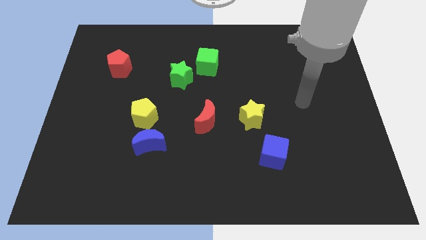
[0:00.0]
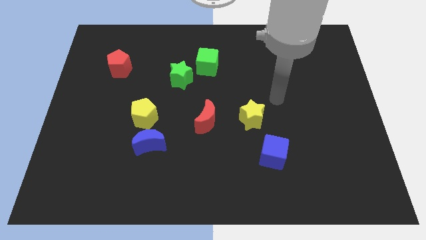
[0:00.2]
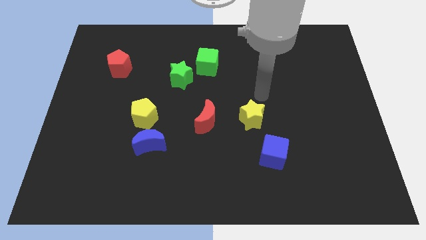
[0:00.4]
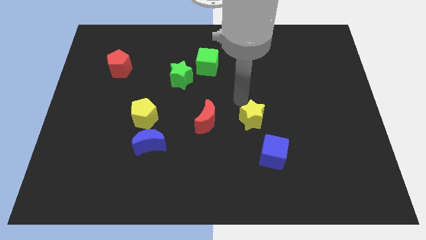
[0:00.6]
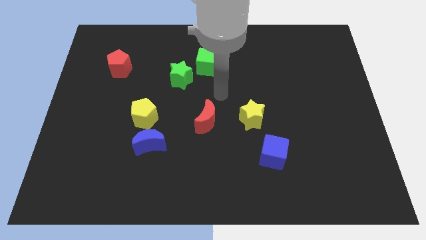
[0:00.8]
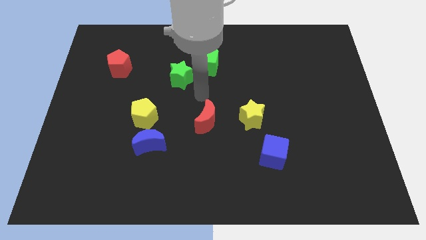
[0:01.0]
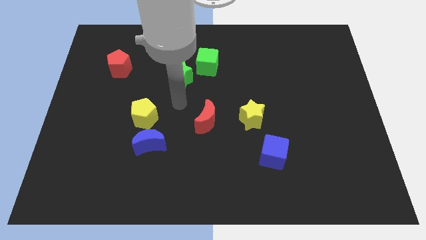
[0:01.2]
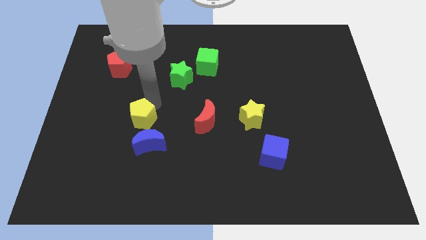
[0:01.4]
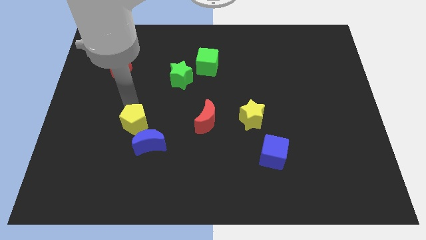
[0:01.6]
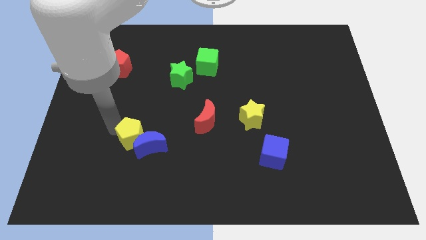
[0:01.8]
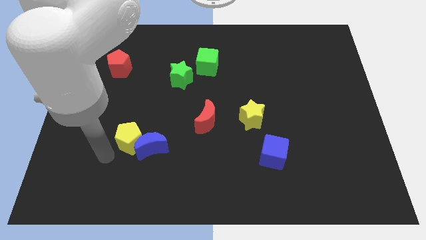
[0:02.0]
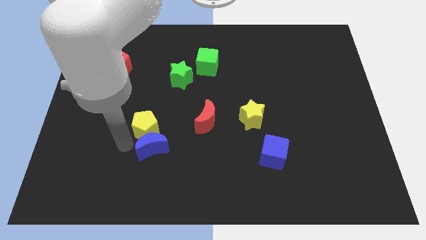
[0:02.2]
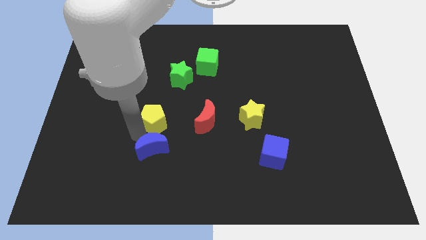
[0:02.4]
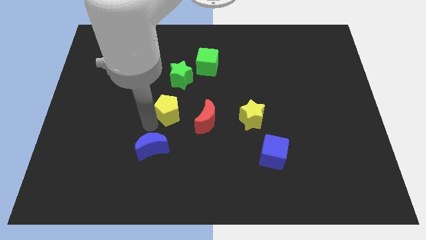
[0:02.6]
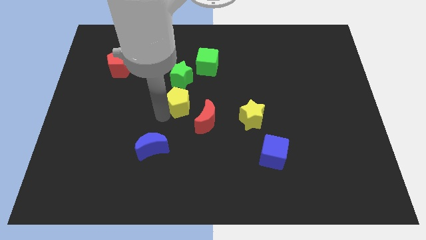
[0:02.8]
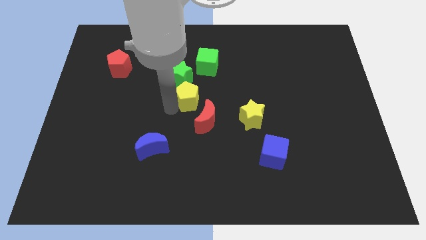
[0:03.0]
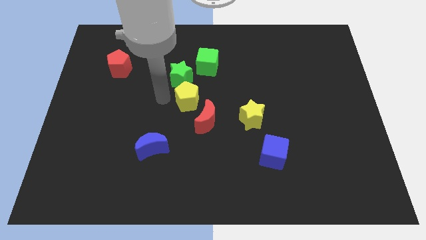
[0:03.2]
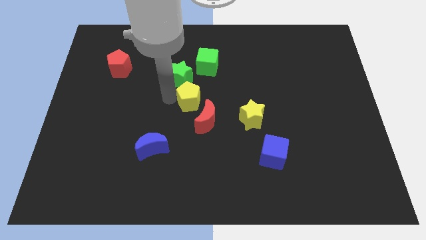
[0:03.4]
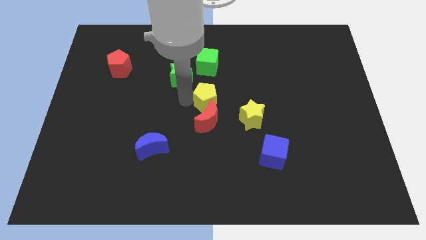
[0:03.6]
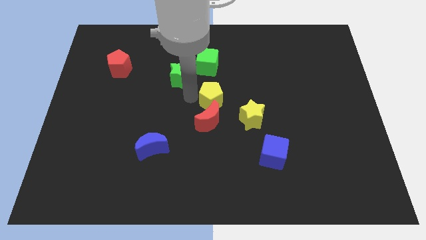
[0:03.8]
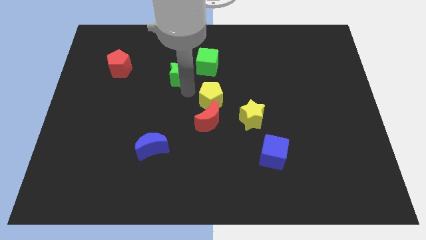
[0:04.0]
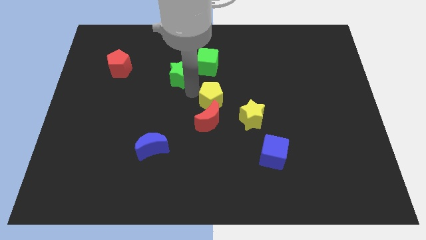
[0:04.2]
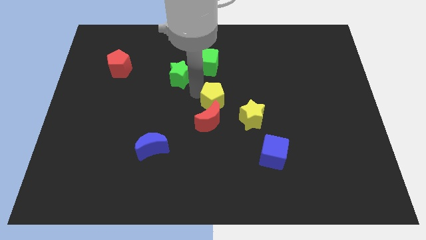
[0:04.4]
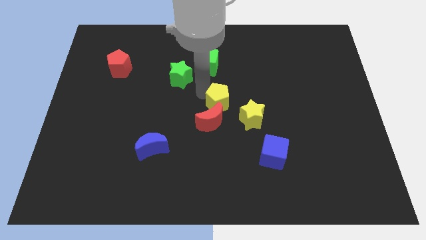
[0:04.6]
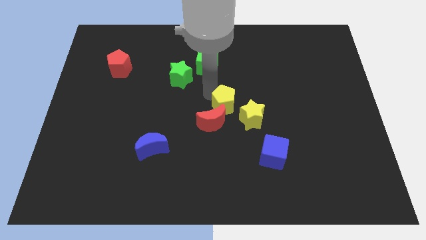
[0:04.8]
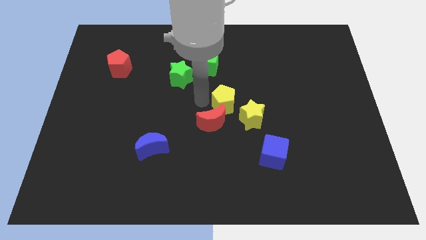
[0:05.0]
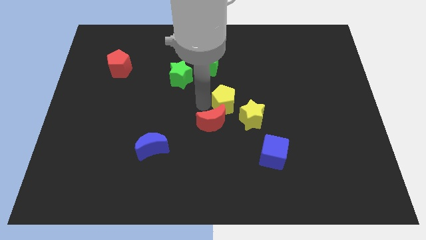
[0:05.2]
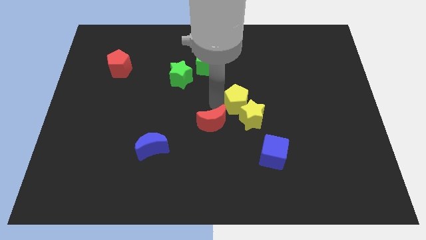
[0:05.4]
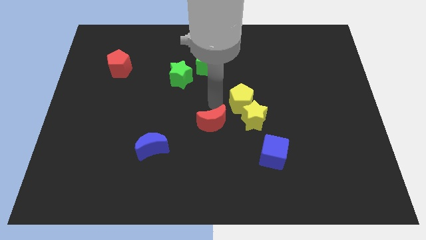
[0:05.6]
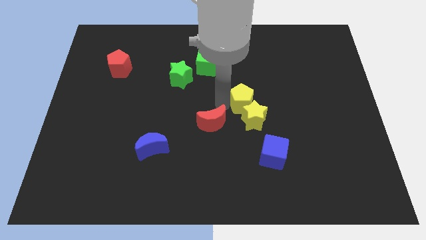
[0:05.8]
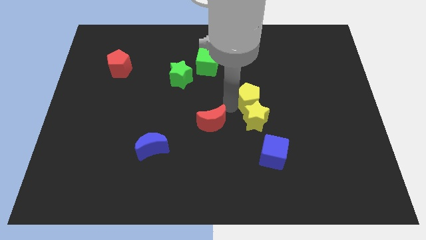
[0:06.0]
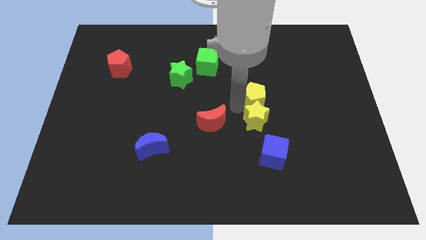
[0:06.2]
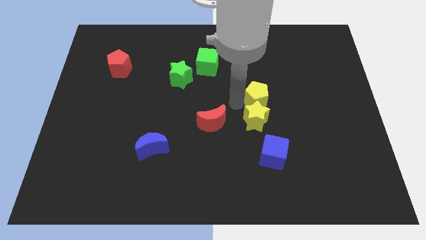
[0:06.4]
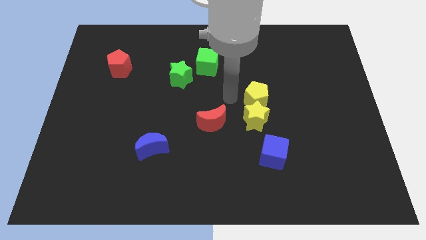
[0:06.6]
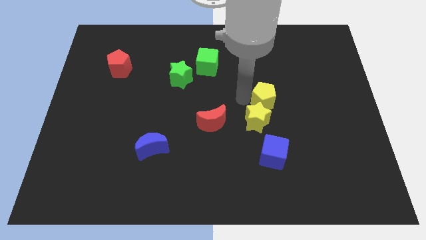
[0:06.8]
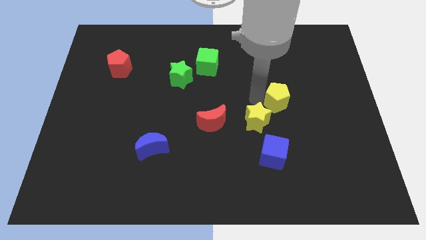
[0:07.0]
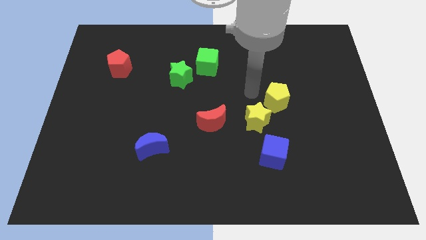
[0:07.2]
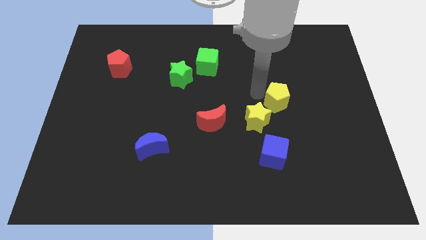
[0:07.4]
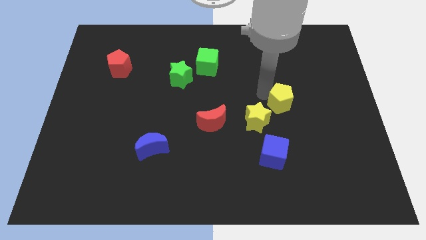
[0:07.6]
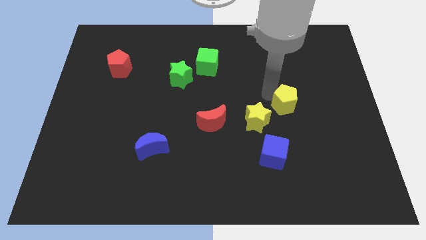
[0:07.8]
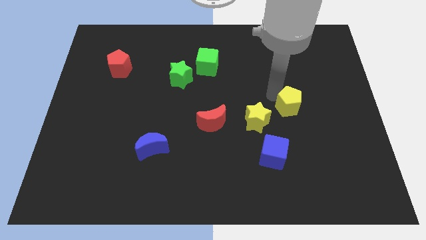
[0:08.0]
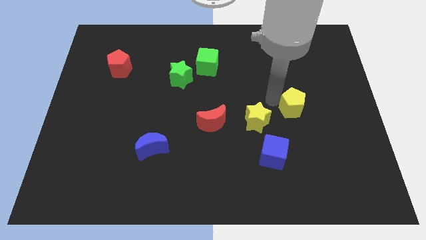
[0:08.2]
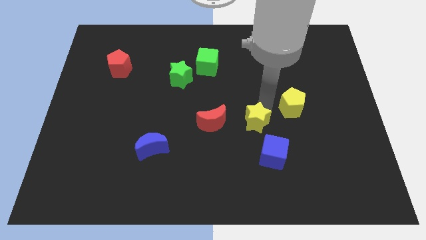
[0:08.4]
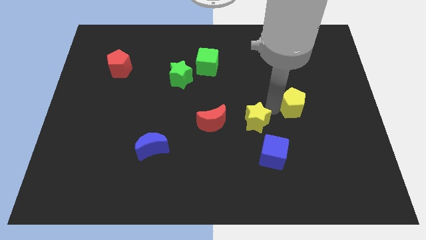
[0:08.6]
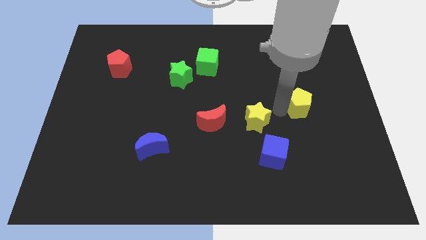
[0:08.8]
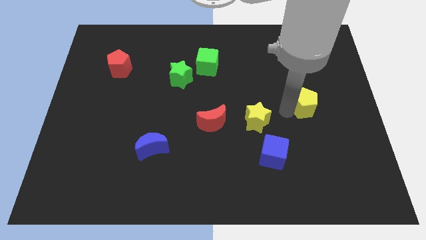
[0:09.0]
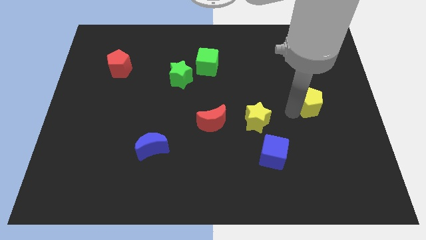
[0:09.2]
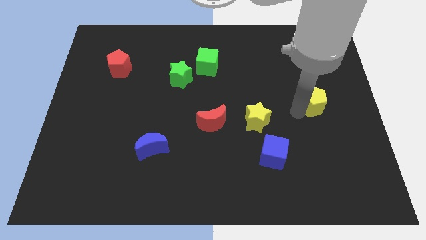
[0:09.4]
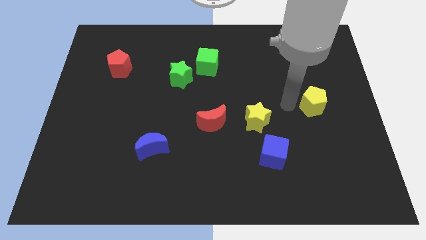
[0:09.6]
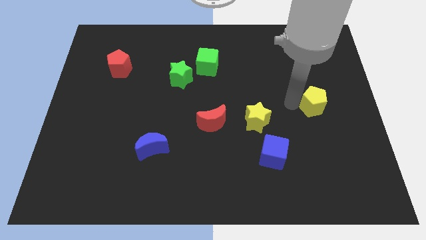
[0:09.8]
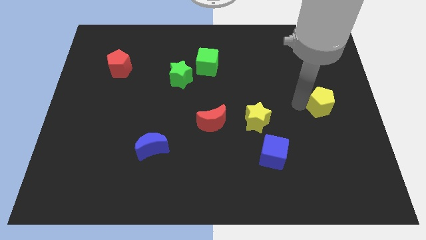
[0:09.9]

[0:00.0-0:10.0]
push the yellow pentagon to the right side

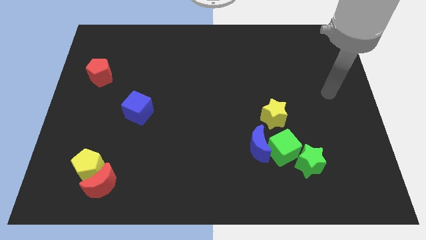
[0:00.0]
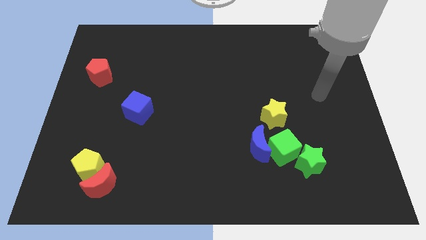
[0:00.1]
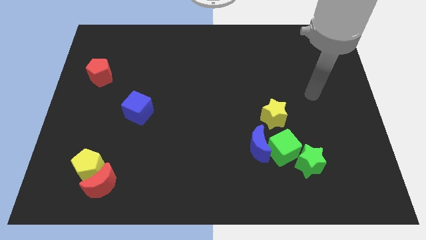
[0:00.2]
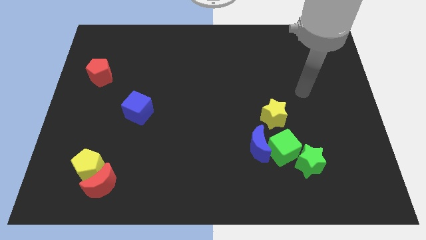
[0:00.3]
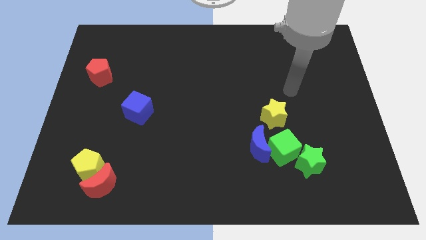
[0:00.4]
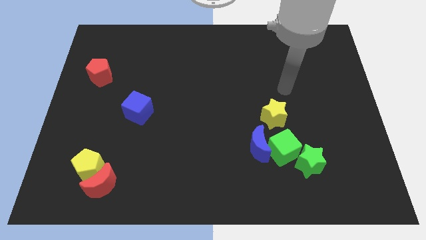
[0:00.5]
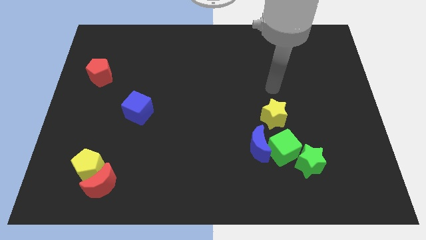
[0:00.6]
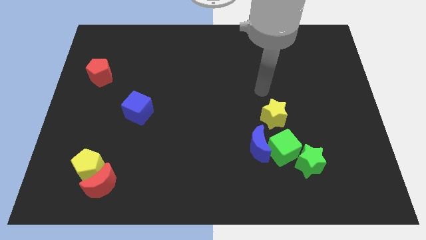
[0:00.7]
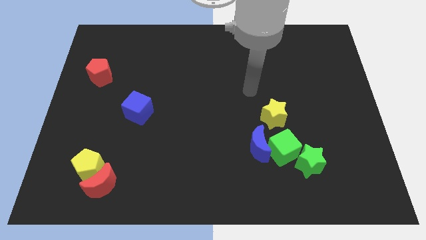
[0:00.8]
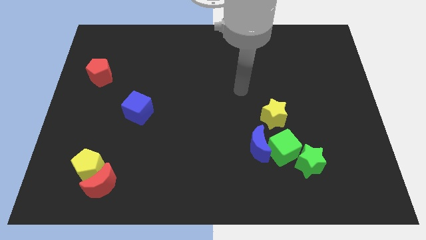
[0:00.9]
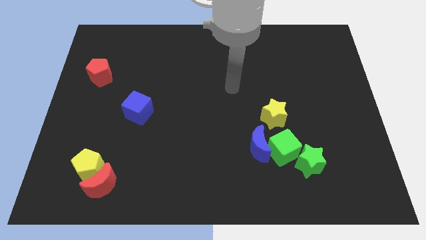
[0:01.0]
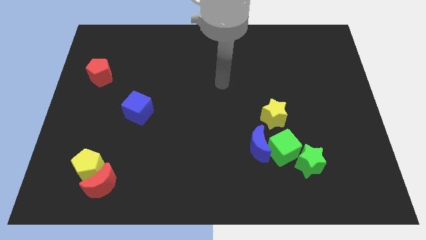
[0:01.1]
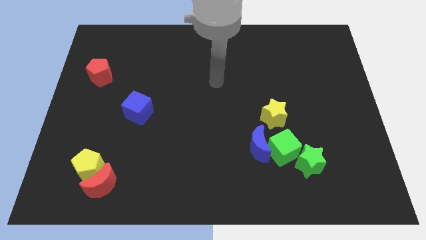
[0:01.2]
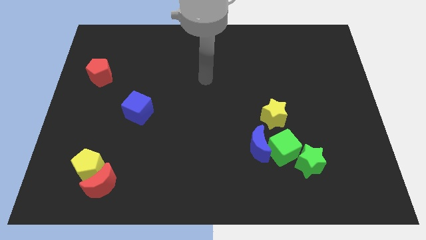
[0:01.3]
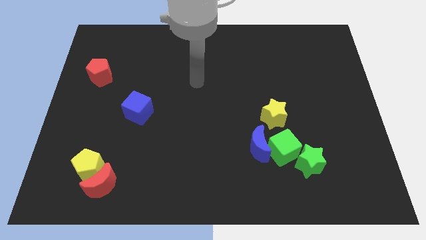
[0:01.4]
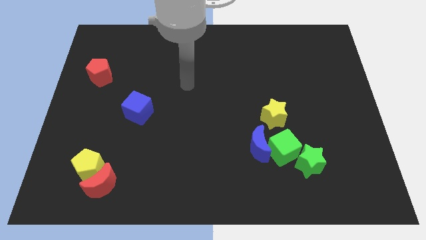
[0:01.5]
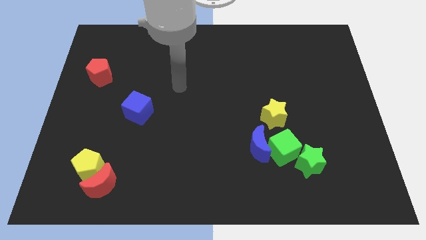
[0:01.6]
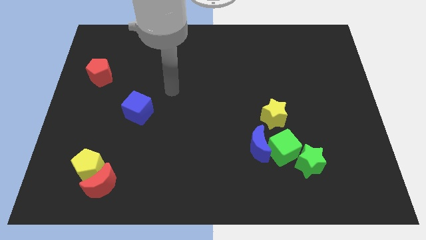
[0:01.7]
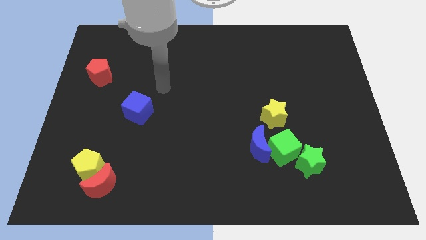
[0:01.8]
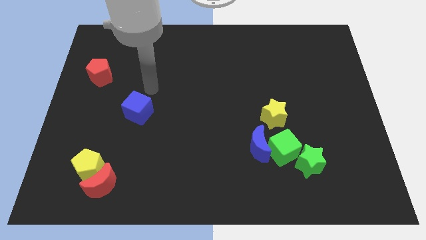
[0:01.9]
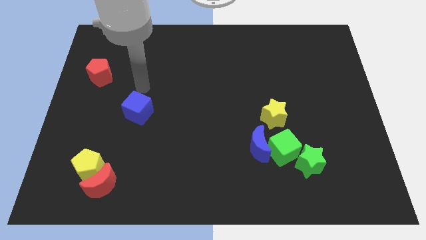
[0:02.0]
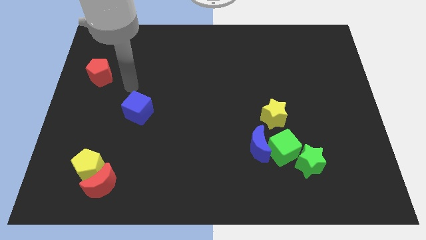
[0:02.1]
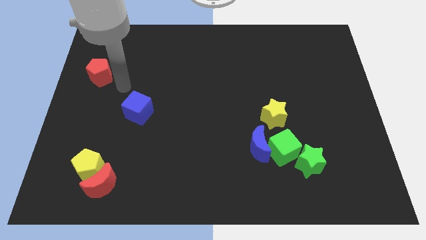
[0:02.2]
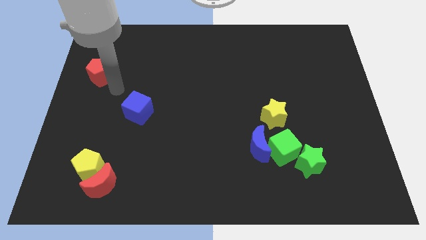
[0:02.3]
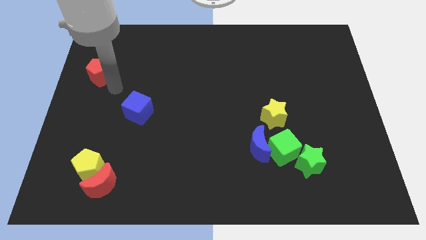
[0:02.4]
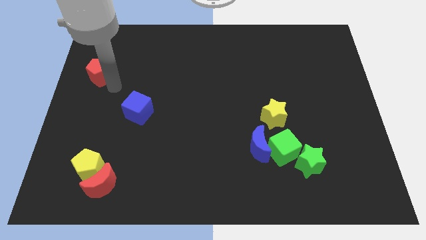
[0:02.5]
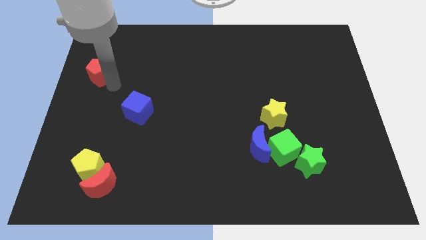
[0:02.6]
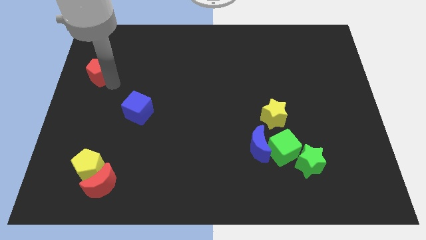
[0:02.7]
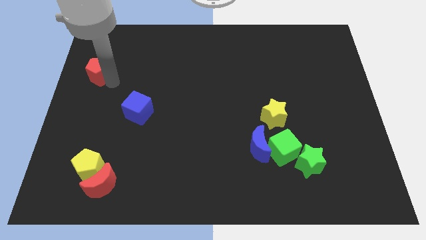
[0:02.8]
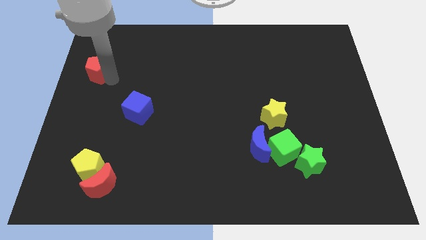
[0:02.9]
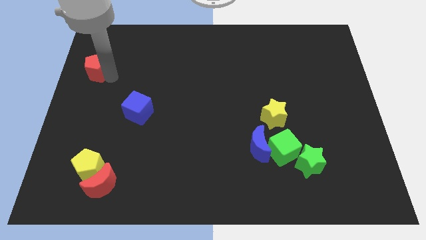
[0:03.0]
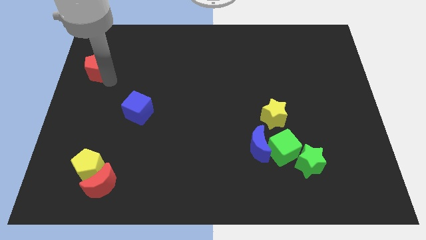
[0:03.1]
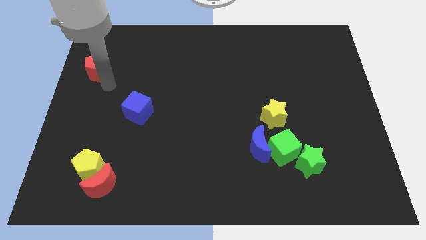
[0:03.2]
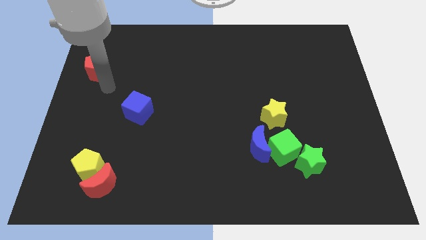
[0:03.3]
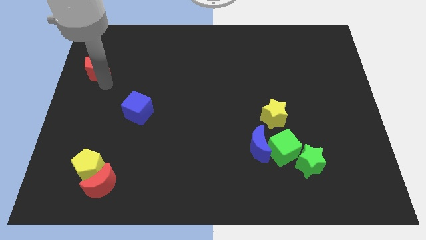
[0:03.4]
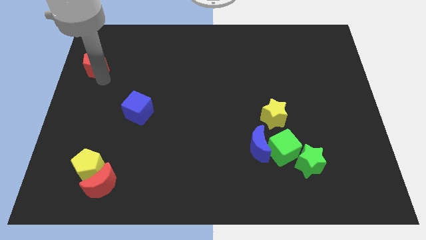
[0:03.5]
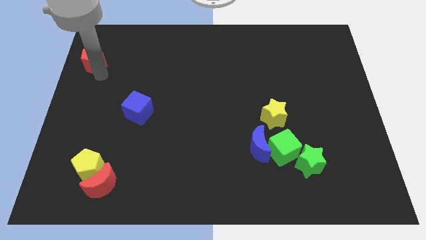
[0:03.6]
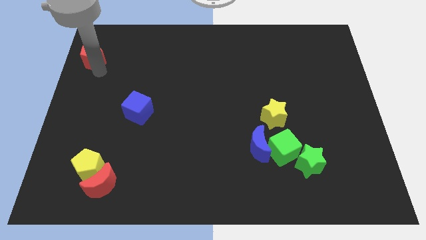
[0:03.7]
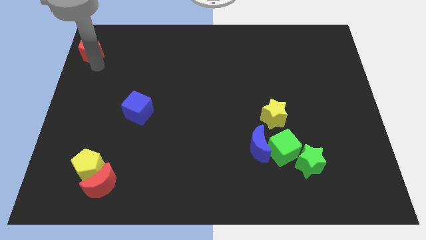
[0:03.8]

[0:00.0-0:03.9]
push the red pentagon to the top left corner
